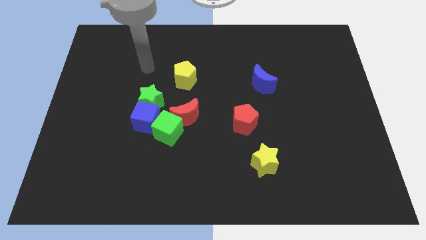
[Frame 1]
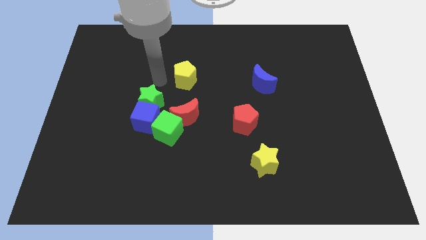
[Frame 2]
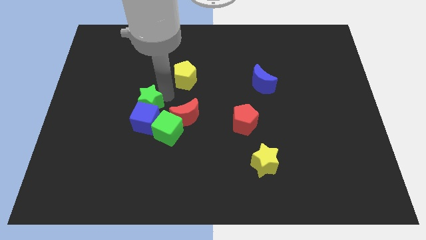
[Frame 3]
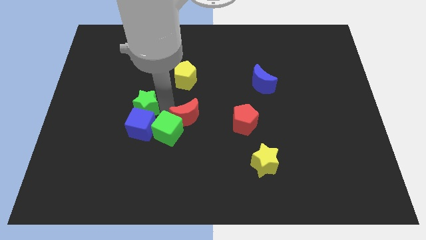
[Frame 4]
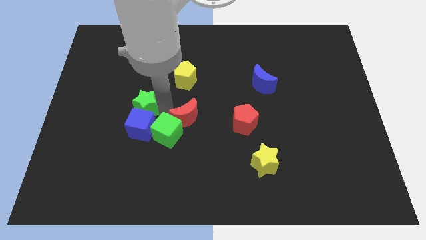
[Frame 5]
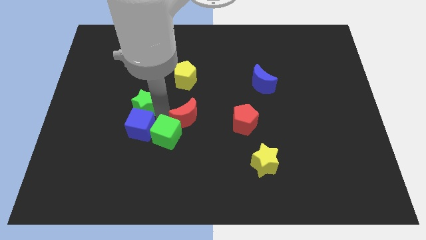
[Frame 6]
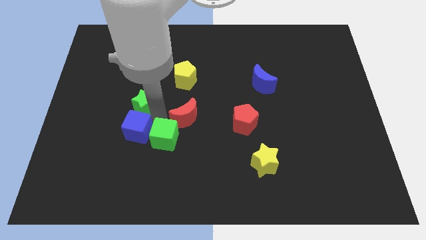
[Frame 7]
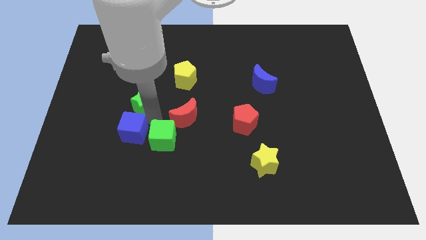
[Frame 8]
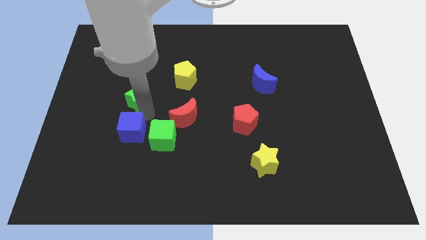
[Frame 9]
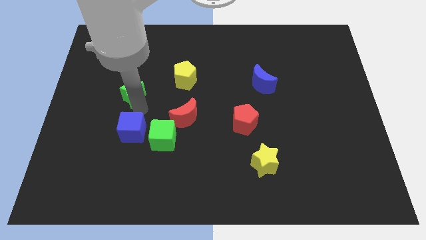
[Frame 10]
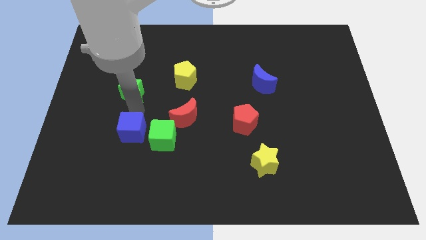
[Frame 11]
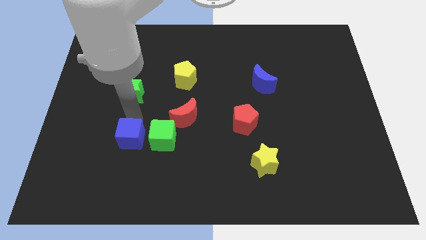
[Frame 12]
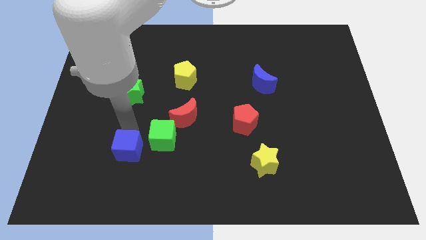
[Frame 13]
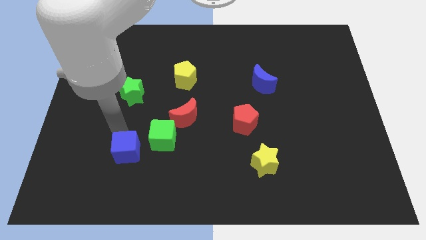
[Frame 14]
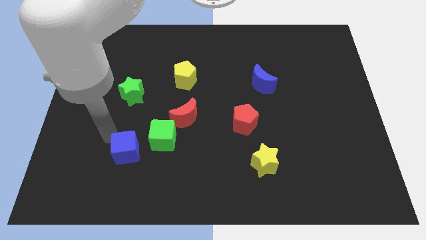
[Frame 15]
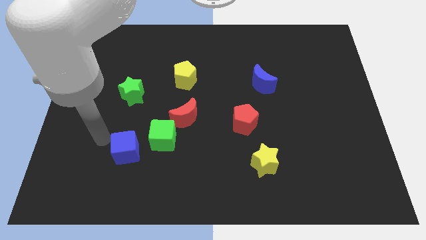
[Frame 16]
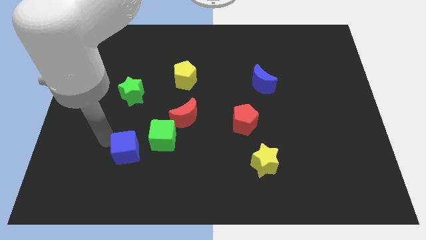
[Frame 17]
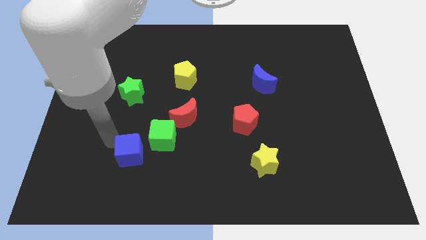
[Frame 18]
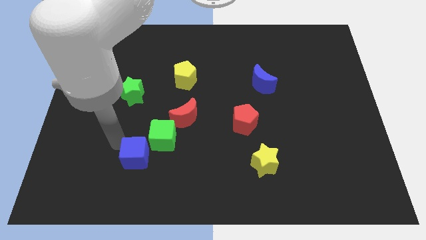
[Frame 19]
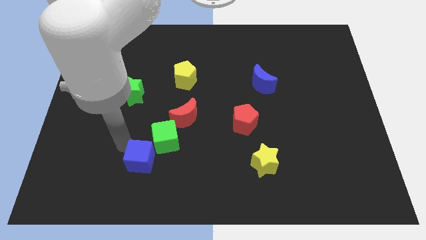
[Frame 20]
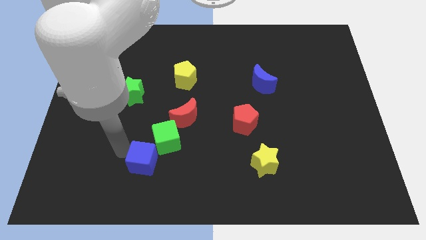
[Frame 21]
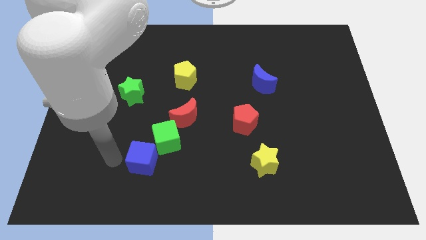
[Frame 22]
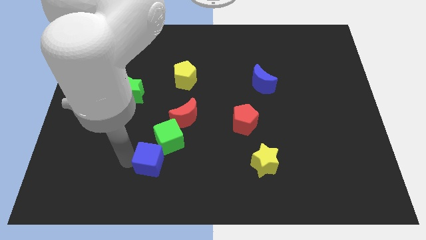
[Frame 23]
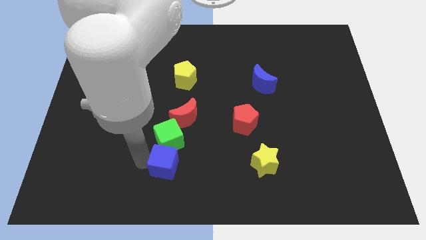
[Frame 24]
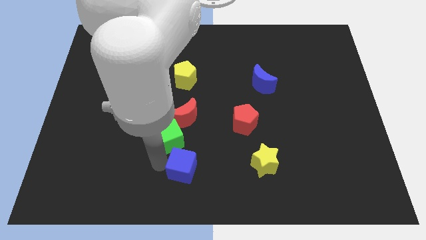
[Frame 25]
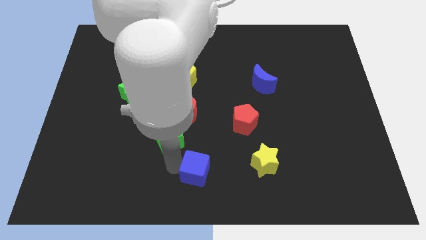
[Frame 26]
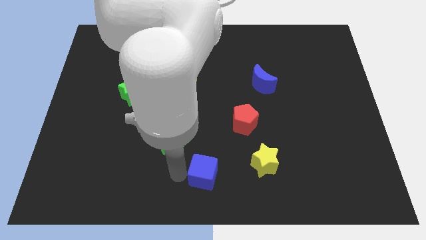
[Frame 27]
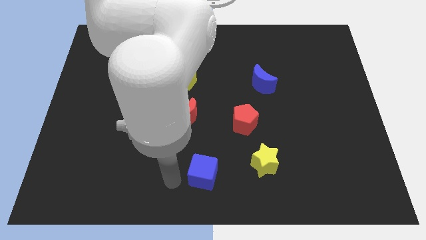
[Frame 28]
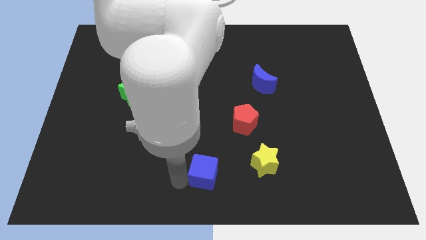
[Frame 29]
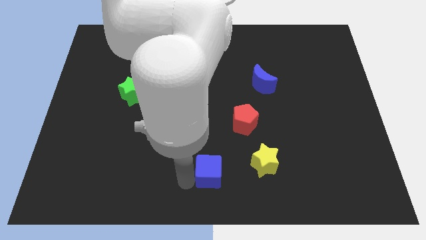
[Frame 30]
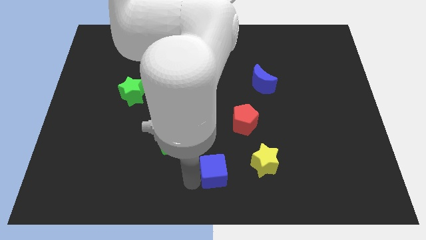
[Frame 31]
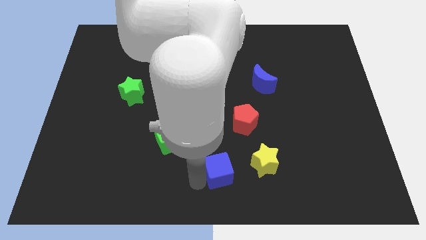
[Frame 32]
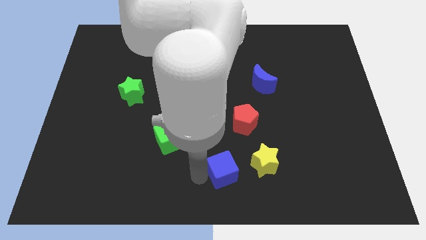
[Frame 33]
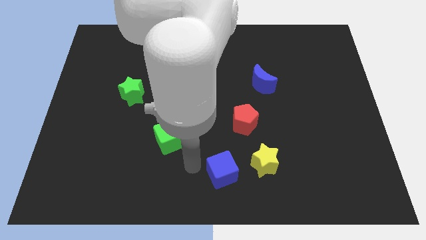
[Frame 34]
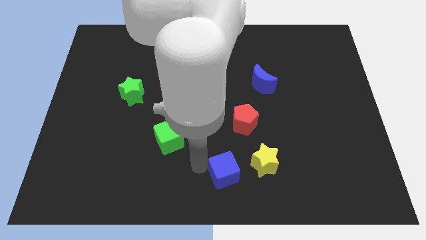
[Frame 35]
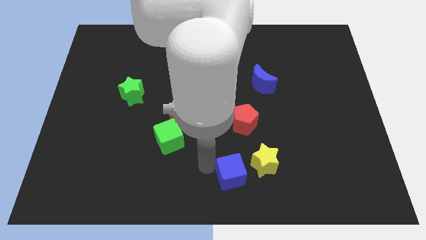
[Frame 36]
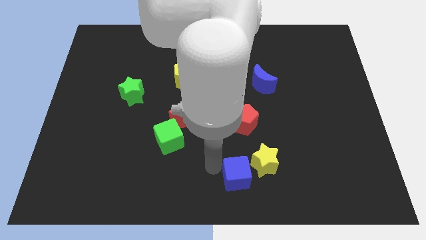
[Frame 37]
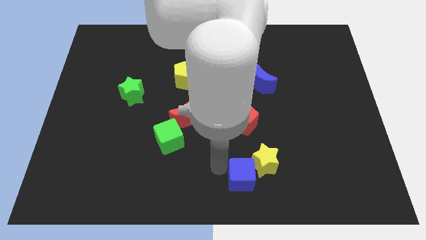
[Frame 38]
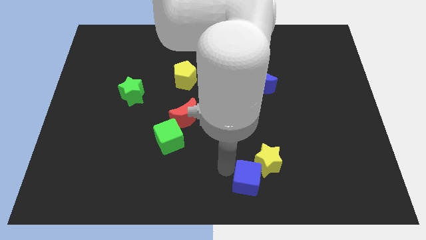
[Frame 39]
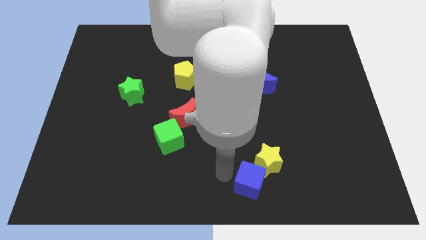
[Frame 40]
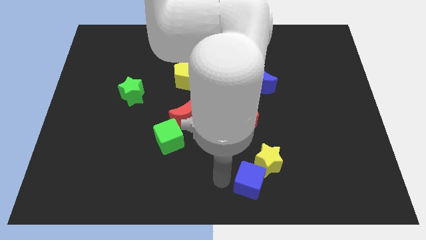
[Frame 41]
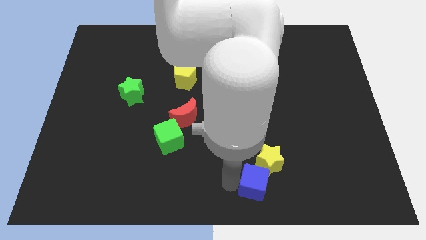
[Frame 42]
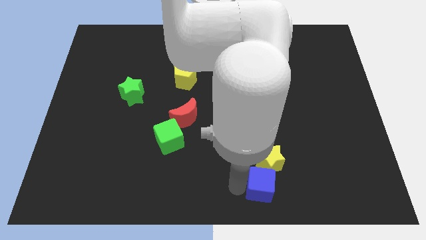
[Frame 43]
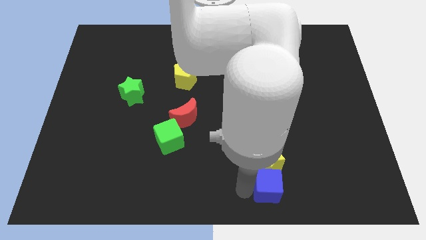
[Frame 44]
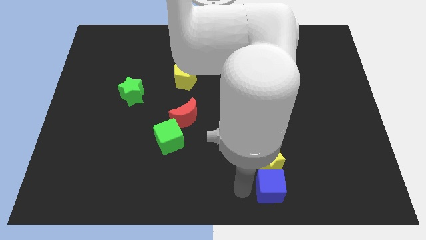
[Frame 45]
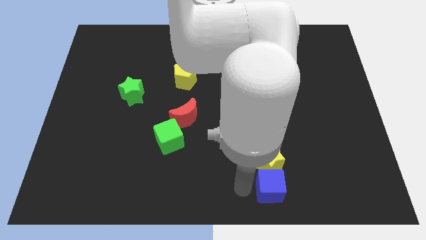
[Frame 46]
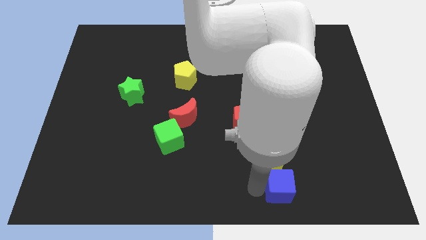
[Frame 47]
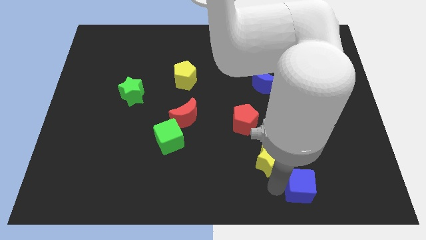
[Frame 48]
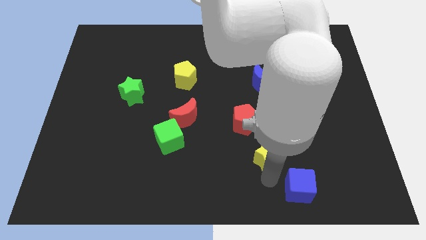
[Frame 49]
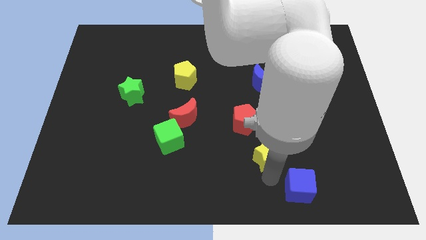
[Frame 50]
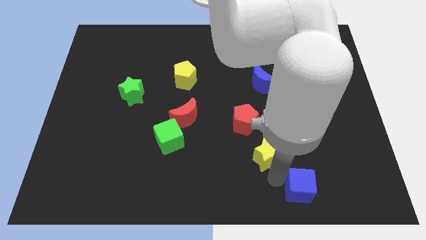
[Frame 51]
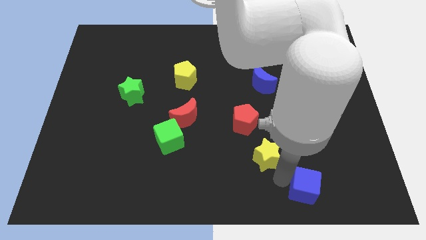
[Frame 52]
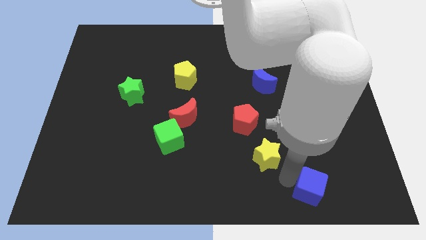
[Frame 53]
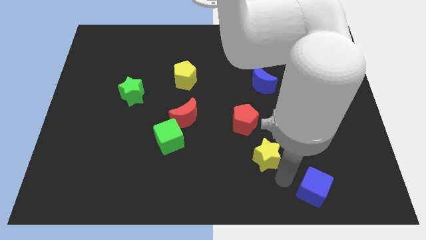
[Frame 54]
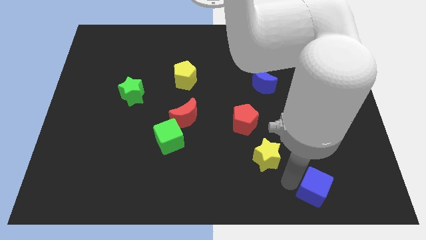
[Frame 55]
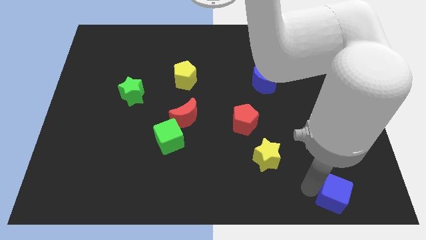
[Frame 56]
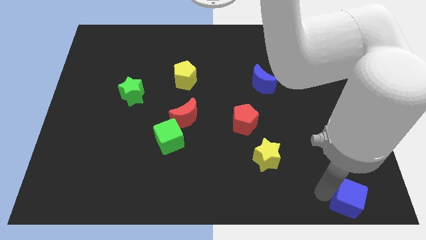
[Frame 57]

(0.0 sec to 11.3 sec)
push the blue cube to the bottom right corner

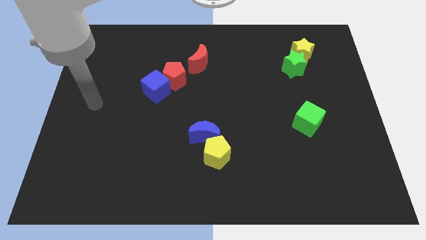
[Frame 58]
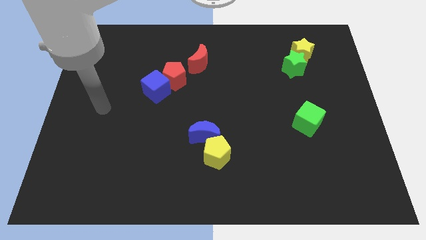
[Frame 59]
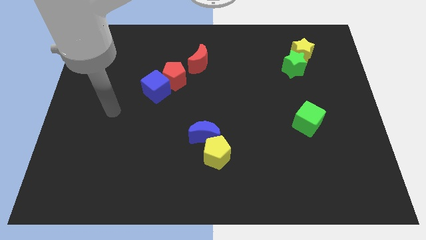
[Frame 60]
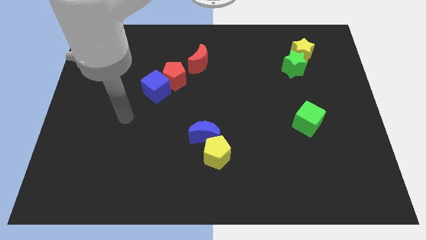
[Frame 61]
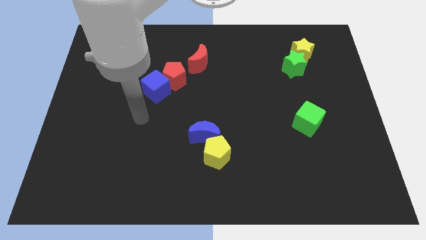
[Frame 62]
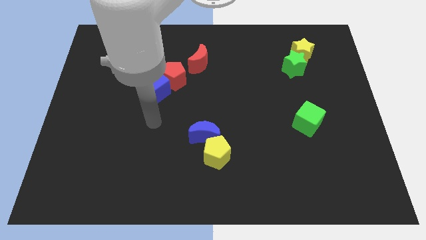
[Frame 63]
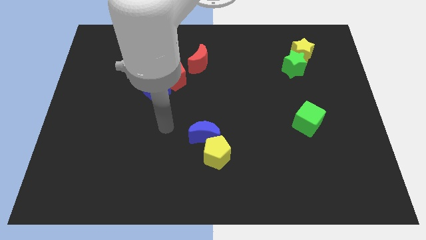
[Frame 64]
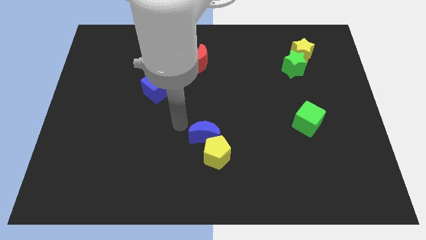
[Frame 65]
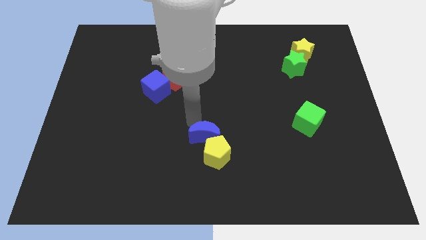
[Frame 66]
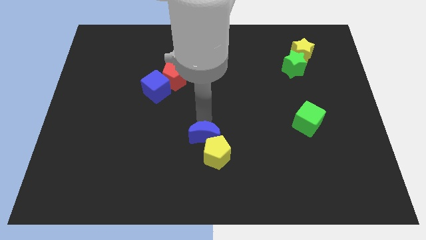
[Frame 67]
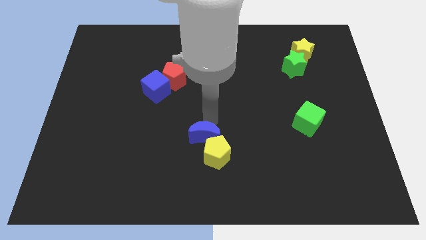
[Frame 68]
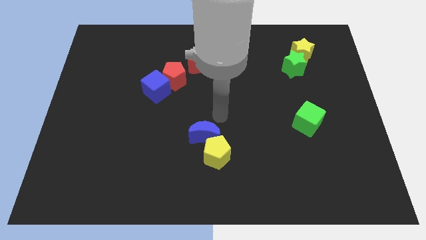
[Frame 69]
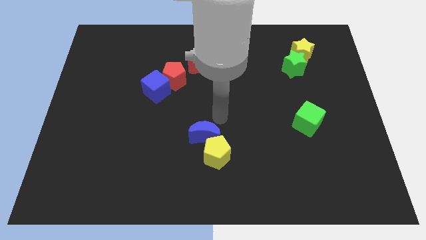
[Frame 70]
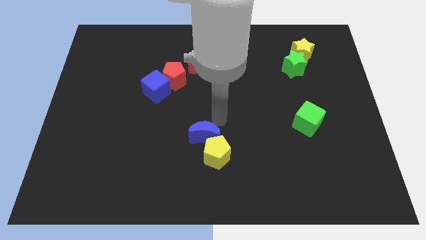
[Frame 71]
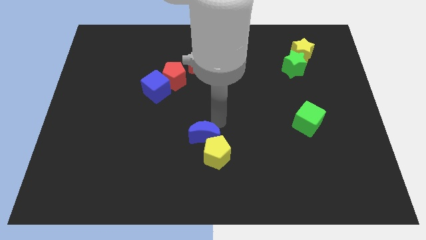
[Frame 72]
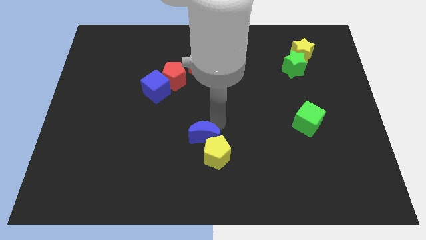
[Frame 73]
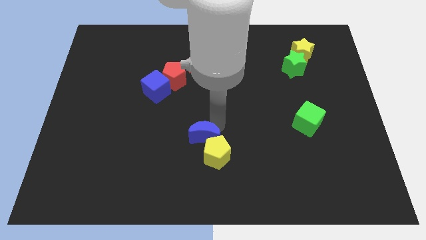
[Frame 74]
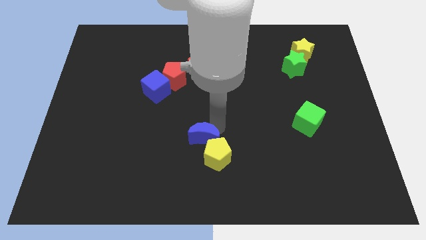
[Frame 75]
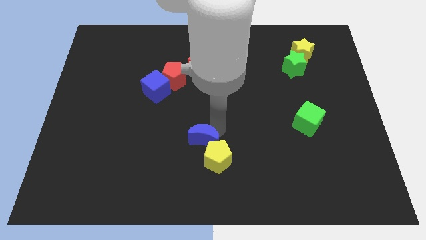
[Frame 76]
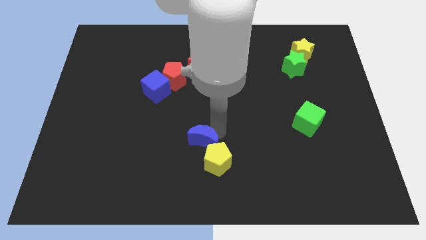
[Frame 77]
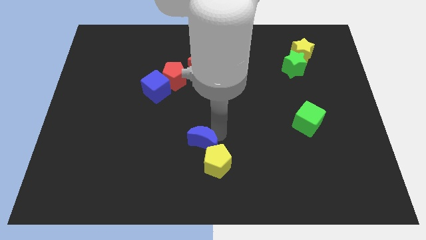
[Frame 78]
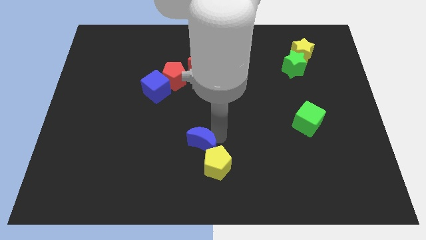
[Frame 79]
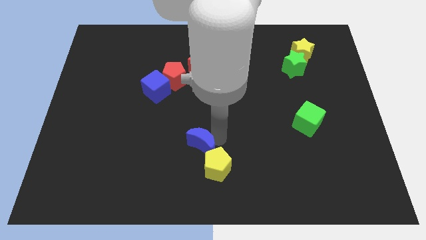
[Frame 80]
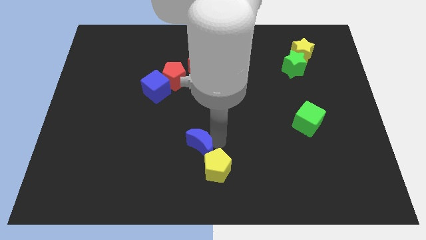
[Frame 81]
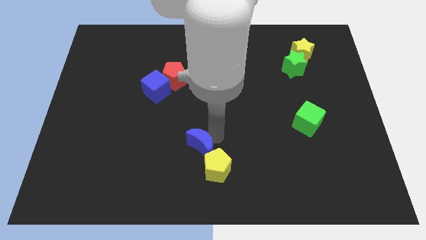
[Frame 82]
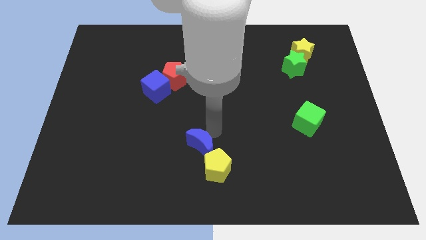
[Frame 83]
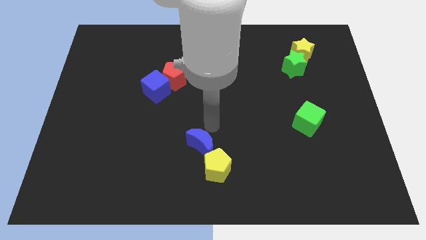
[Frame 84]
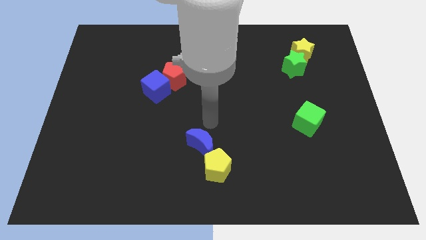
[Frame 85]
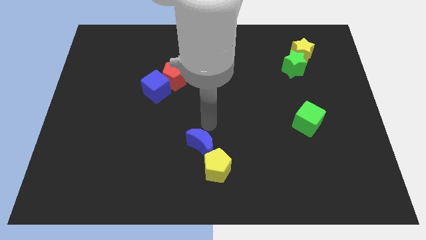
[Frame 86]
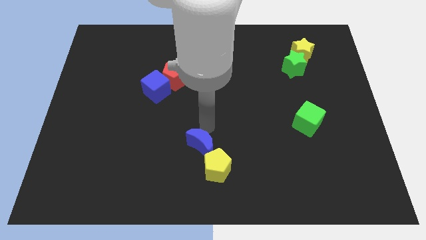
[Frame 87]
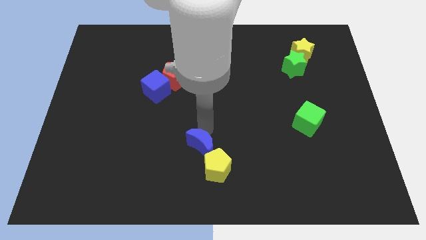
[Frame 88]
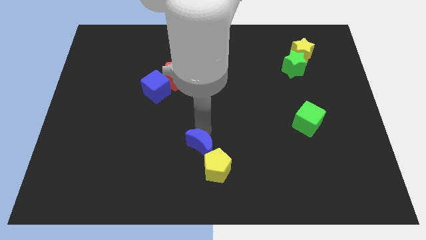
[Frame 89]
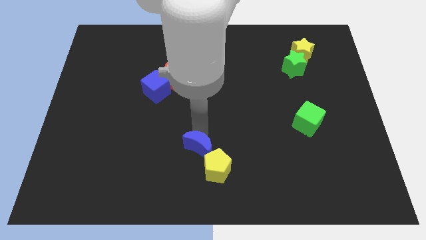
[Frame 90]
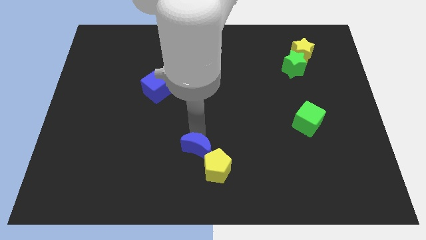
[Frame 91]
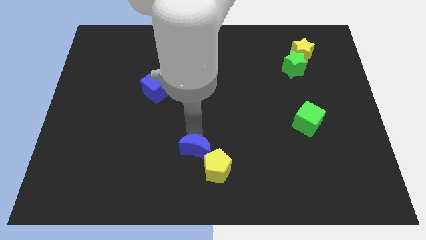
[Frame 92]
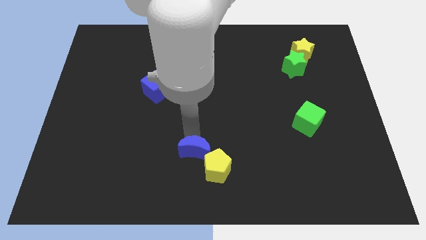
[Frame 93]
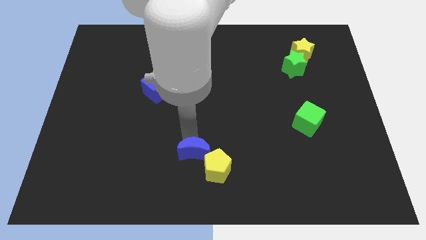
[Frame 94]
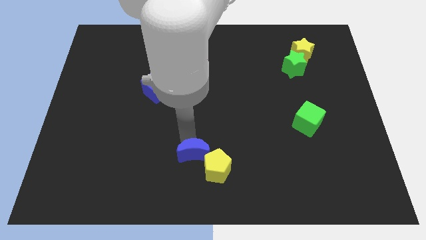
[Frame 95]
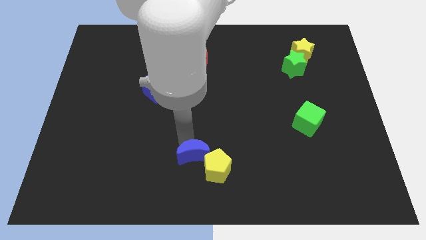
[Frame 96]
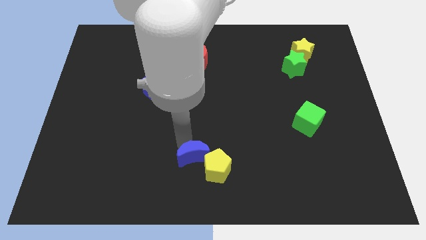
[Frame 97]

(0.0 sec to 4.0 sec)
slide the blue moon to the bottom
